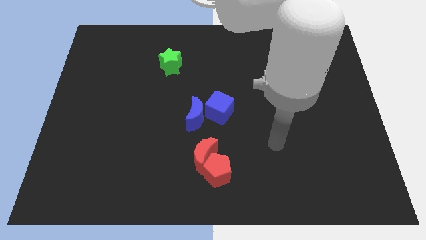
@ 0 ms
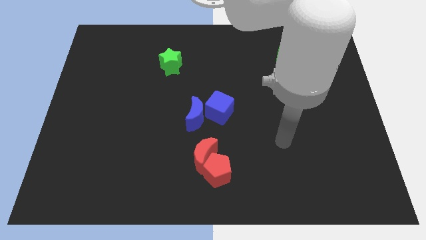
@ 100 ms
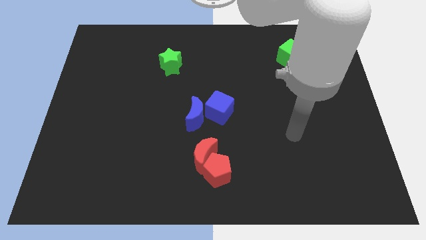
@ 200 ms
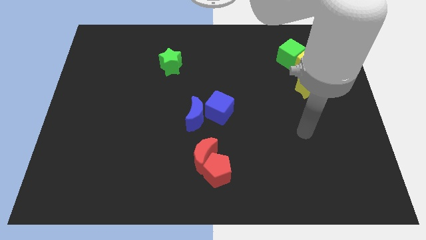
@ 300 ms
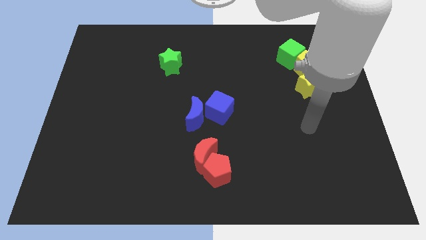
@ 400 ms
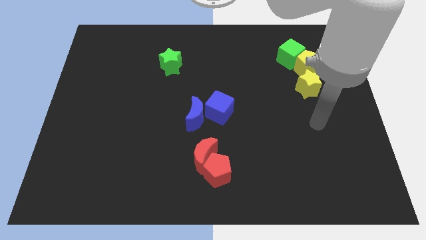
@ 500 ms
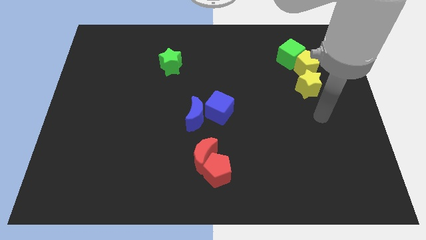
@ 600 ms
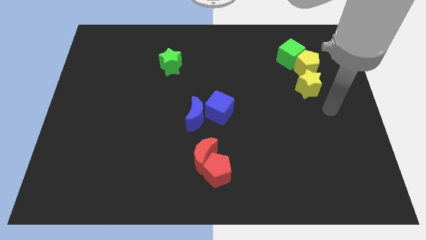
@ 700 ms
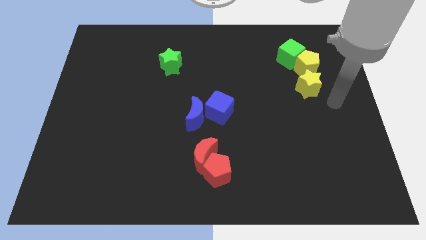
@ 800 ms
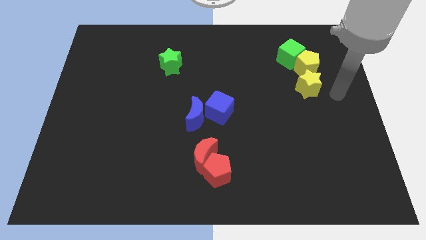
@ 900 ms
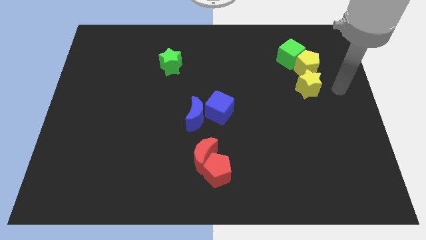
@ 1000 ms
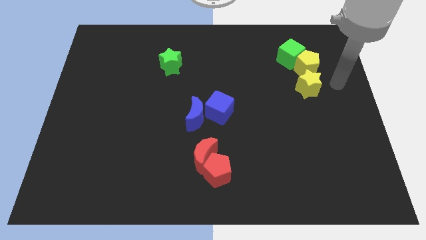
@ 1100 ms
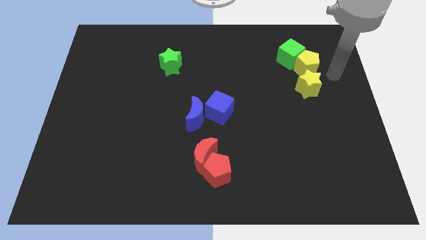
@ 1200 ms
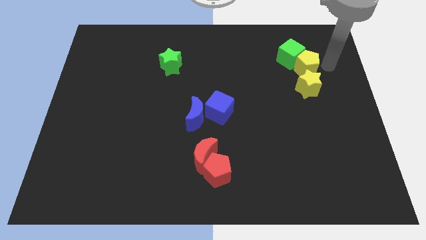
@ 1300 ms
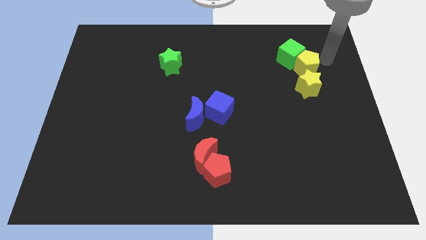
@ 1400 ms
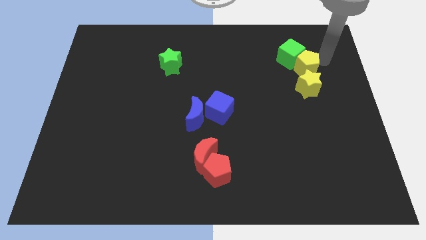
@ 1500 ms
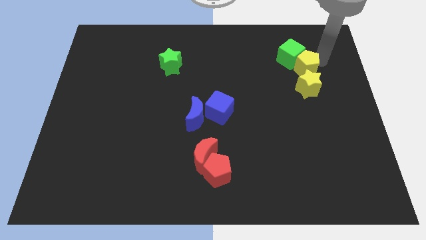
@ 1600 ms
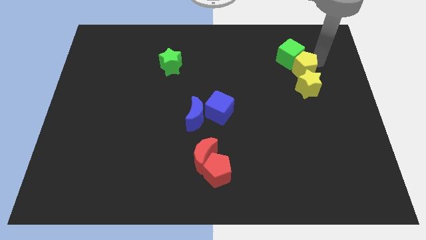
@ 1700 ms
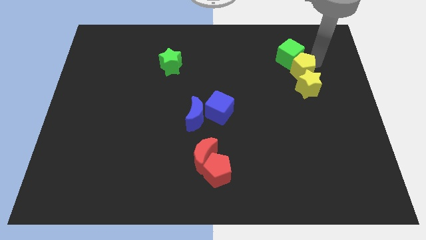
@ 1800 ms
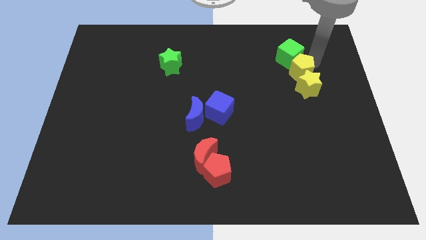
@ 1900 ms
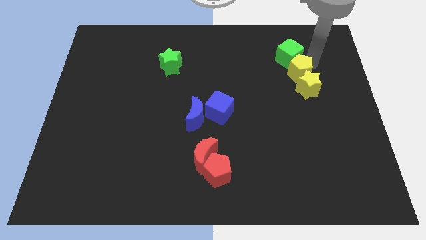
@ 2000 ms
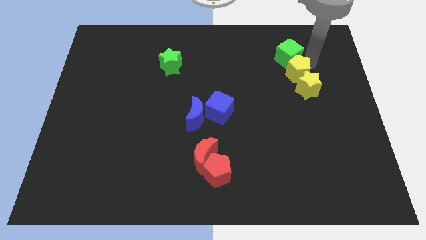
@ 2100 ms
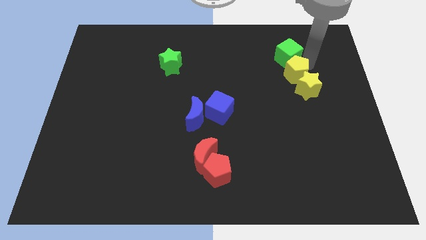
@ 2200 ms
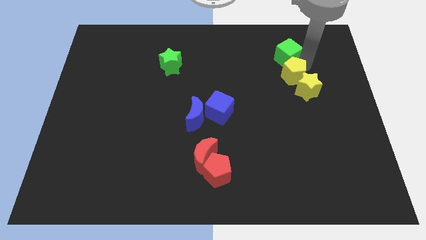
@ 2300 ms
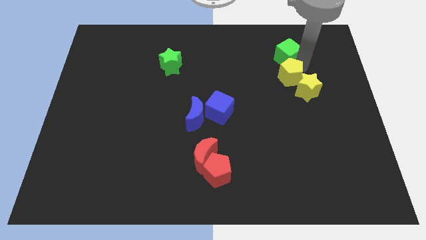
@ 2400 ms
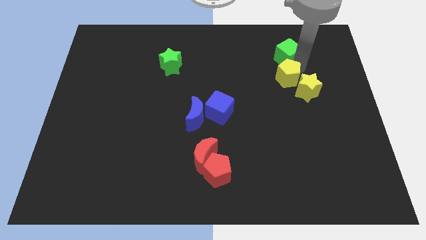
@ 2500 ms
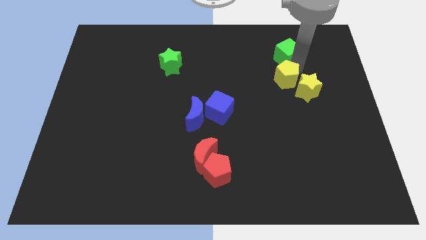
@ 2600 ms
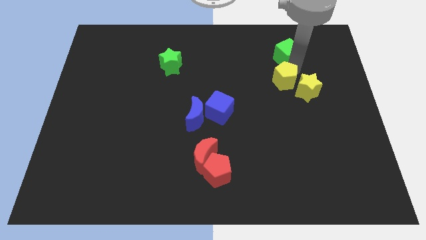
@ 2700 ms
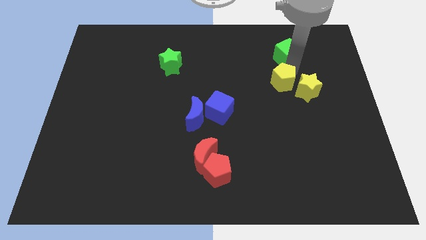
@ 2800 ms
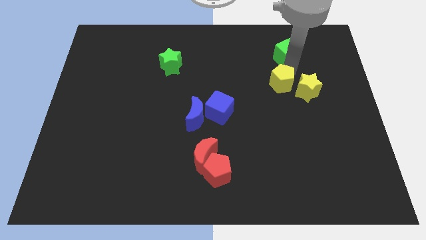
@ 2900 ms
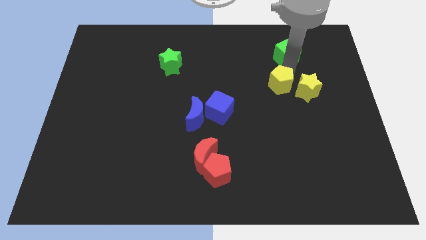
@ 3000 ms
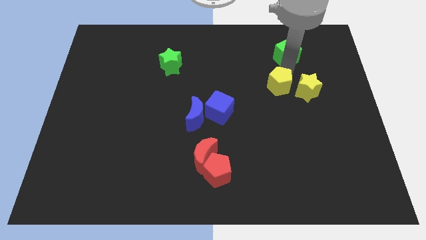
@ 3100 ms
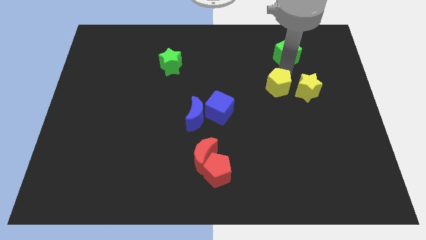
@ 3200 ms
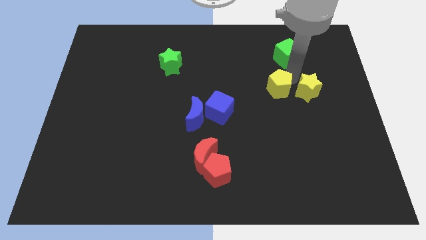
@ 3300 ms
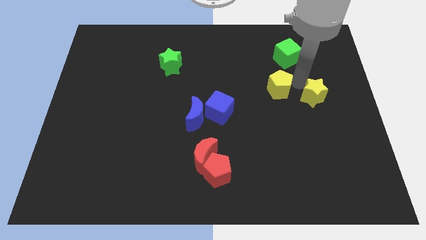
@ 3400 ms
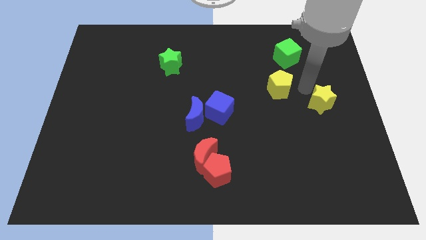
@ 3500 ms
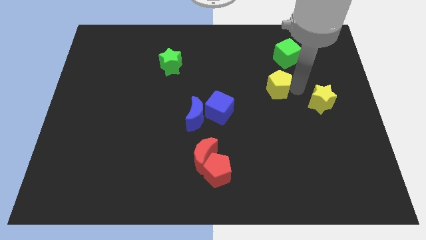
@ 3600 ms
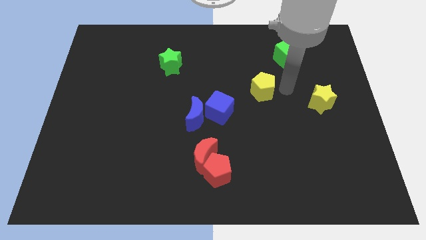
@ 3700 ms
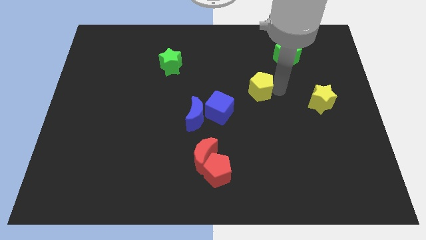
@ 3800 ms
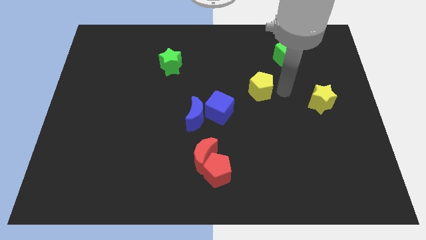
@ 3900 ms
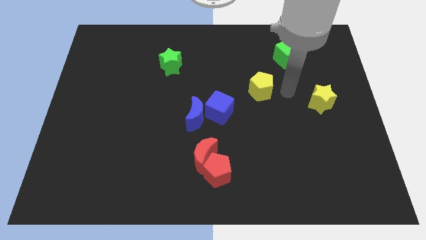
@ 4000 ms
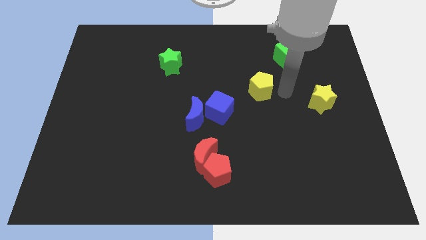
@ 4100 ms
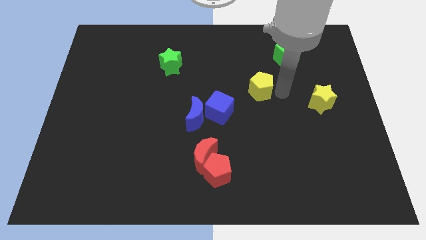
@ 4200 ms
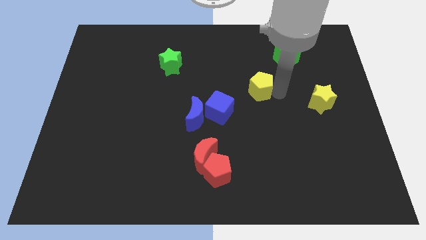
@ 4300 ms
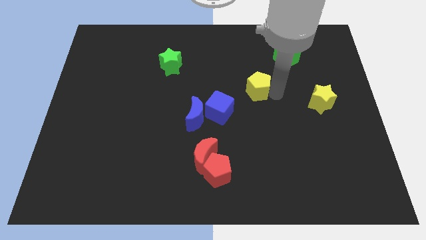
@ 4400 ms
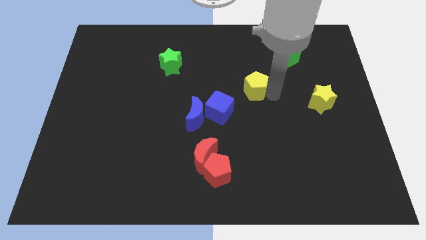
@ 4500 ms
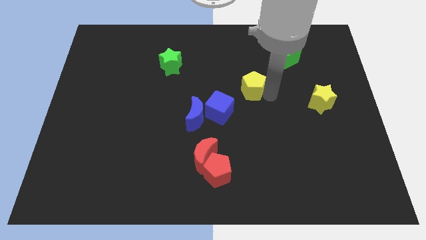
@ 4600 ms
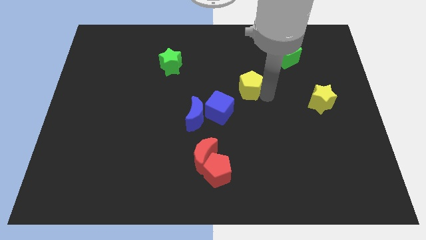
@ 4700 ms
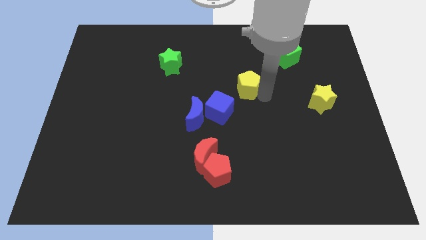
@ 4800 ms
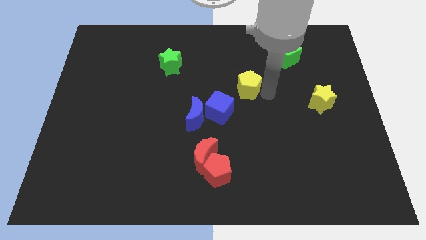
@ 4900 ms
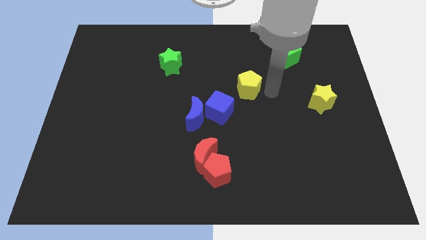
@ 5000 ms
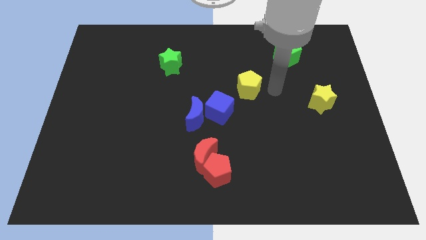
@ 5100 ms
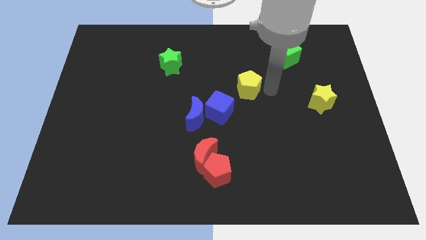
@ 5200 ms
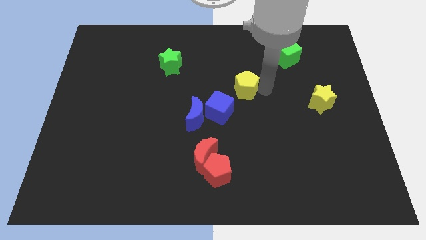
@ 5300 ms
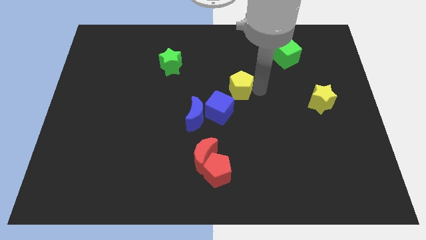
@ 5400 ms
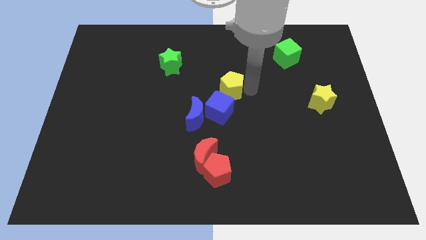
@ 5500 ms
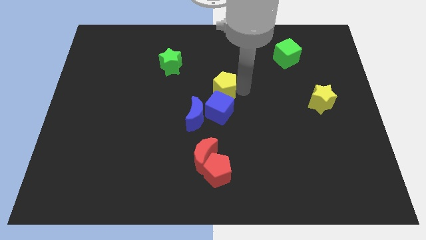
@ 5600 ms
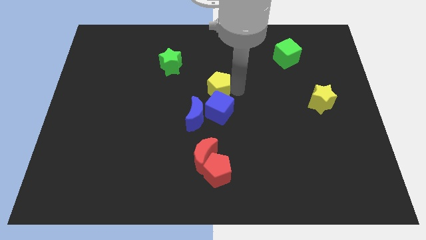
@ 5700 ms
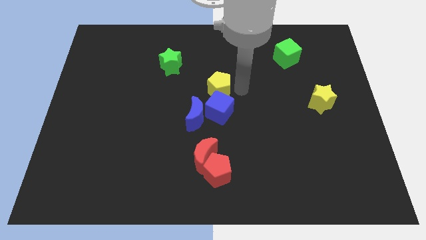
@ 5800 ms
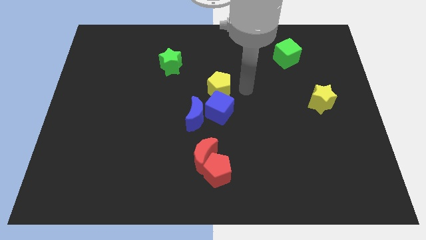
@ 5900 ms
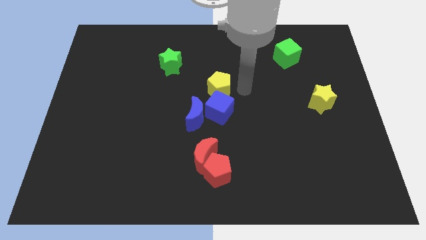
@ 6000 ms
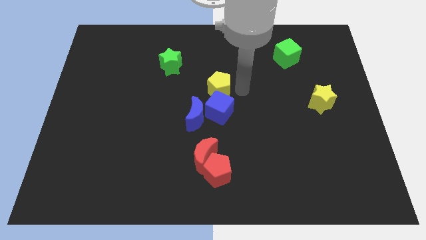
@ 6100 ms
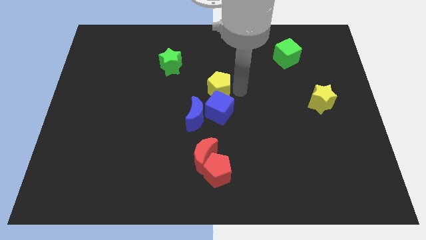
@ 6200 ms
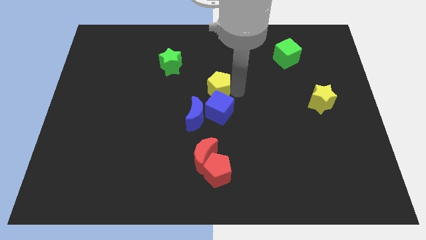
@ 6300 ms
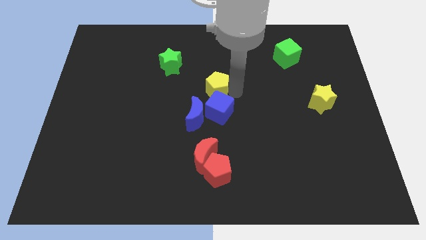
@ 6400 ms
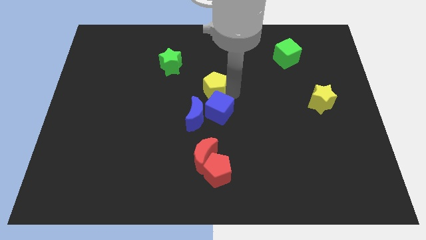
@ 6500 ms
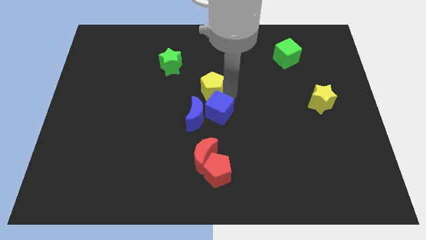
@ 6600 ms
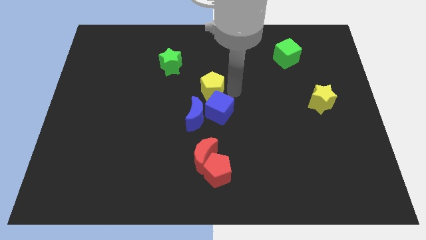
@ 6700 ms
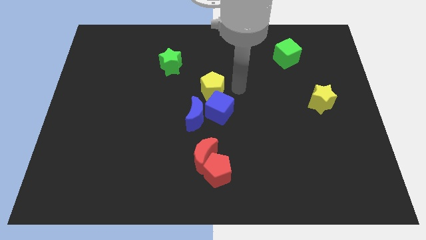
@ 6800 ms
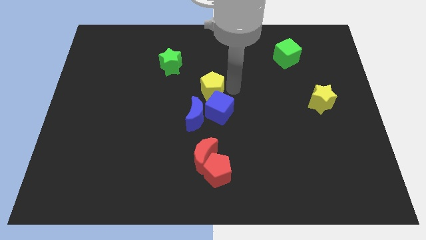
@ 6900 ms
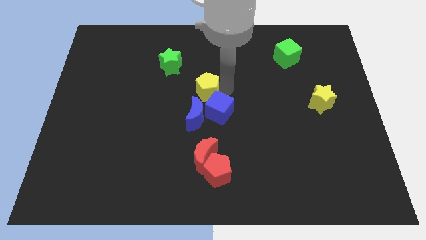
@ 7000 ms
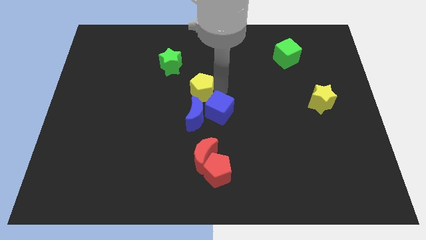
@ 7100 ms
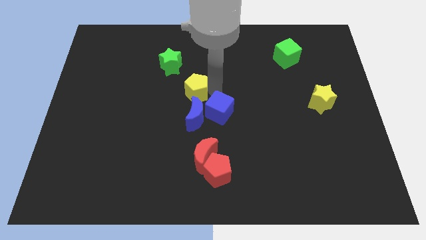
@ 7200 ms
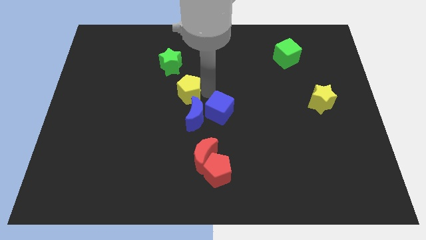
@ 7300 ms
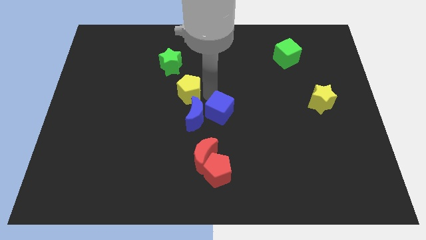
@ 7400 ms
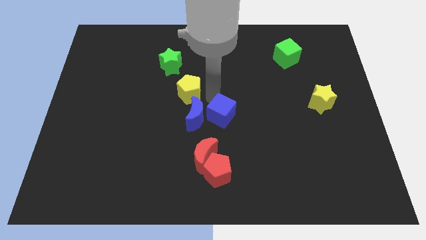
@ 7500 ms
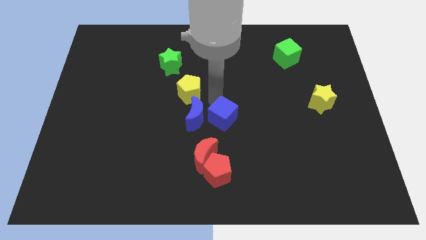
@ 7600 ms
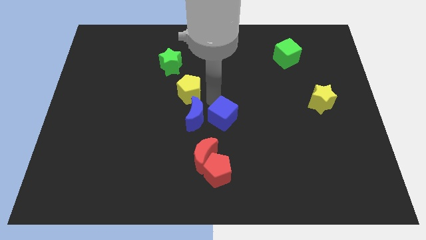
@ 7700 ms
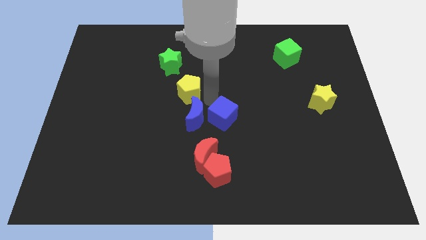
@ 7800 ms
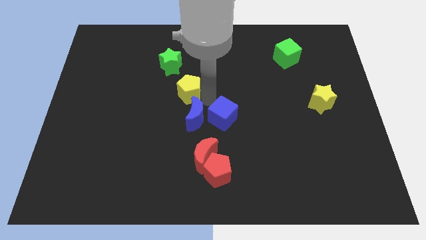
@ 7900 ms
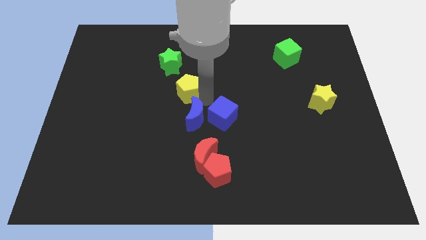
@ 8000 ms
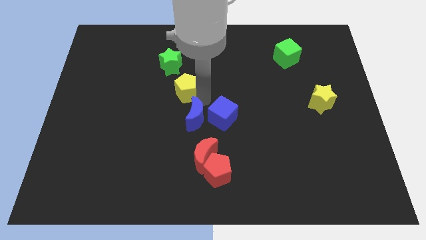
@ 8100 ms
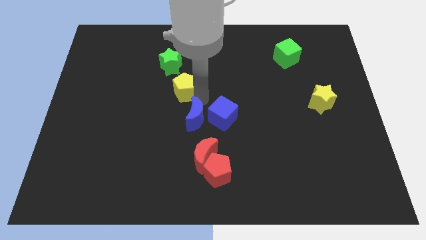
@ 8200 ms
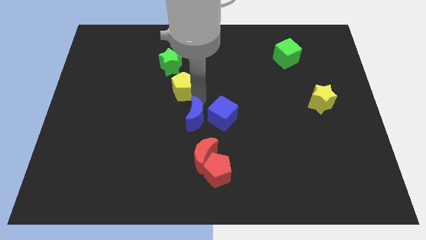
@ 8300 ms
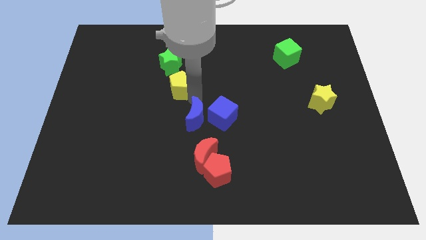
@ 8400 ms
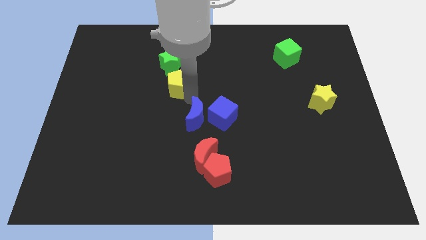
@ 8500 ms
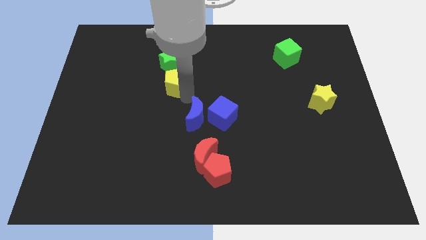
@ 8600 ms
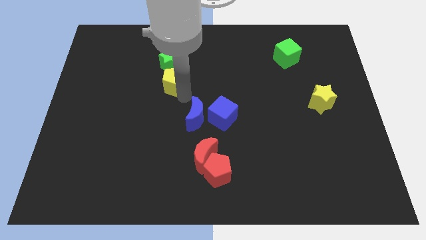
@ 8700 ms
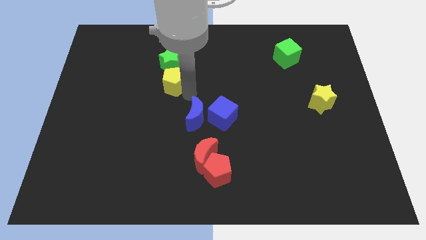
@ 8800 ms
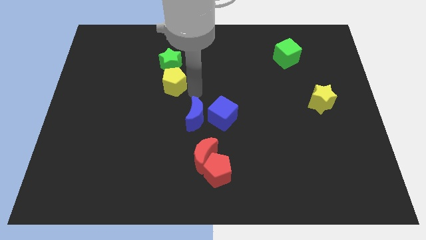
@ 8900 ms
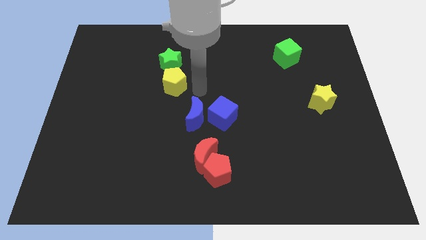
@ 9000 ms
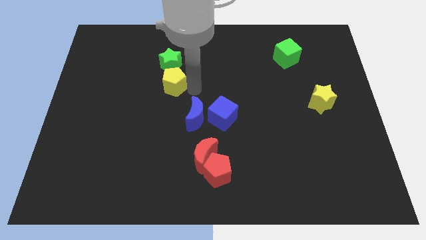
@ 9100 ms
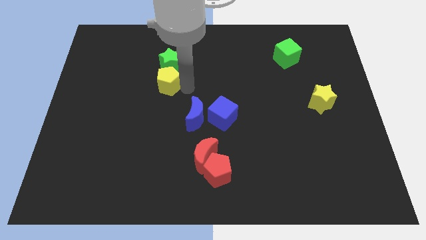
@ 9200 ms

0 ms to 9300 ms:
push the yellow pentagon diagonally down and to the left of the green star
